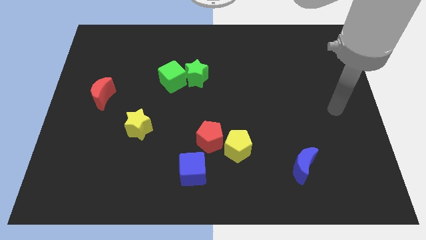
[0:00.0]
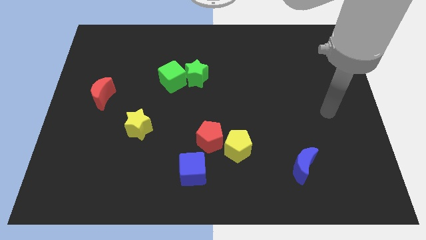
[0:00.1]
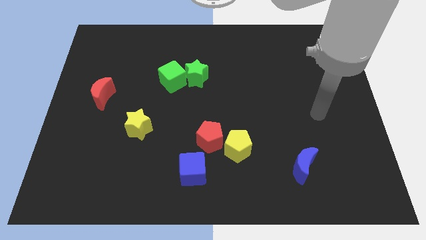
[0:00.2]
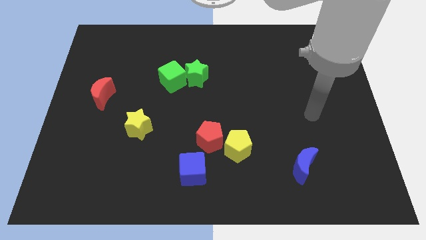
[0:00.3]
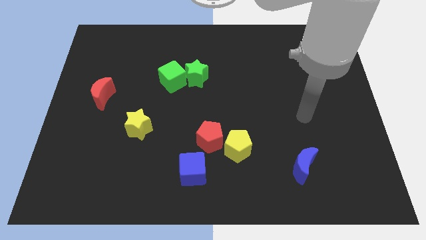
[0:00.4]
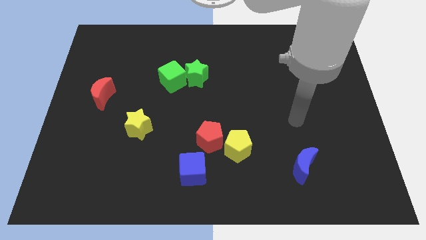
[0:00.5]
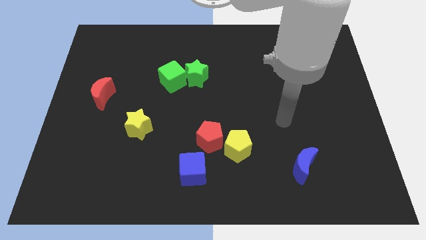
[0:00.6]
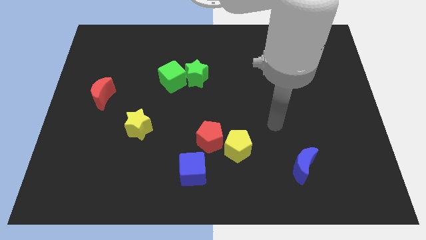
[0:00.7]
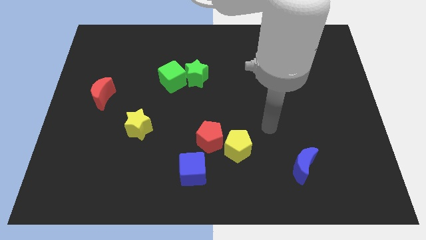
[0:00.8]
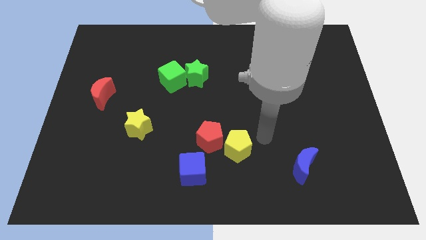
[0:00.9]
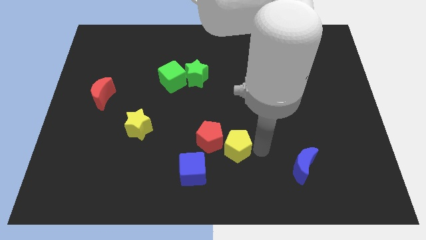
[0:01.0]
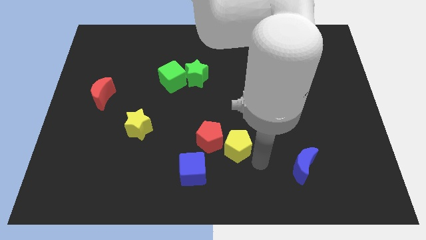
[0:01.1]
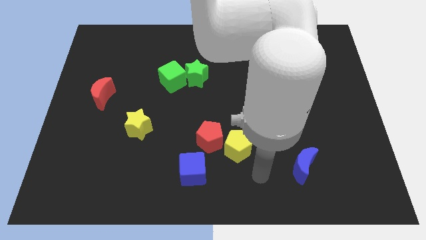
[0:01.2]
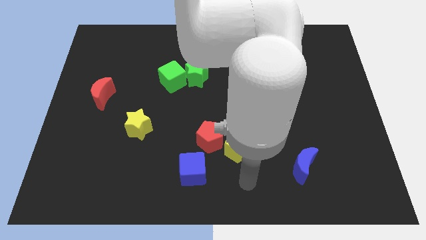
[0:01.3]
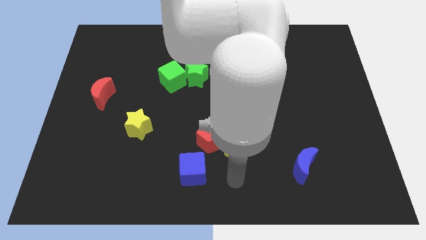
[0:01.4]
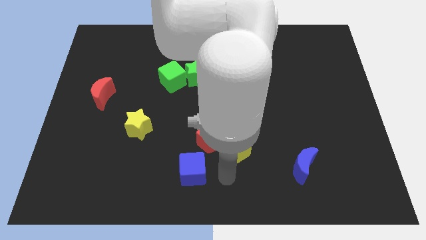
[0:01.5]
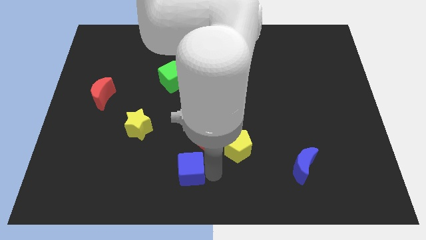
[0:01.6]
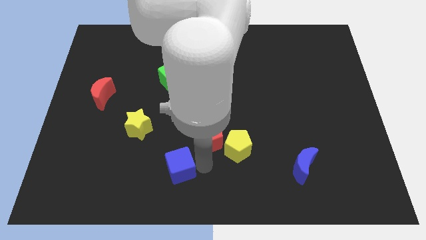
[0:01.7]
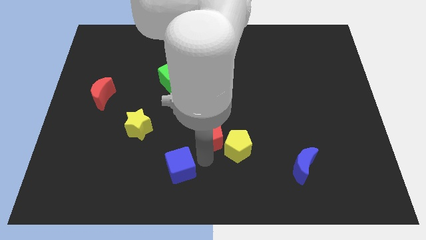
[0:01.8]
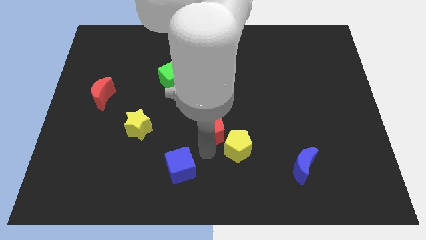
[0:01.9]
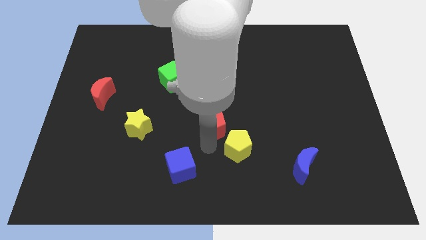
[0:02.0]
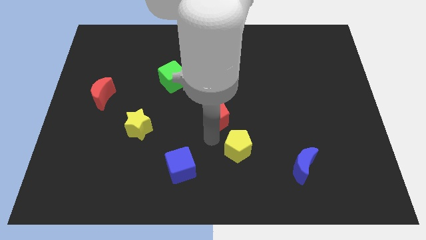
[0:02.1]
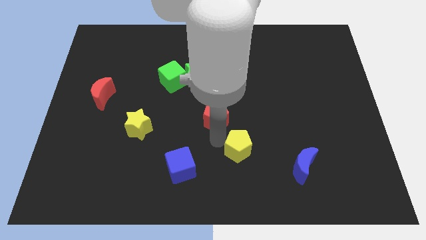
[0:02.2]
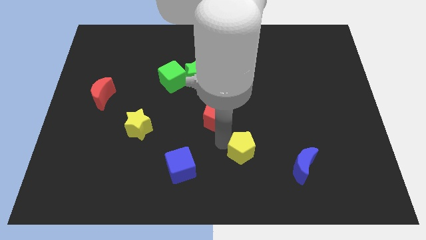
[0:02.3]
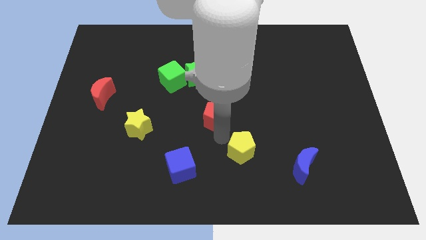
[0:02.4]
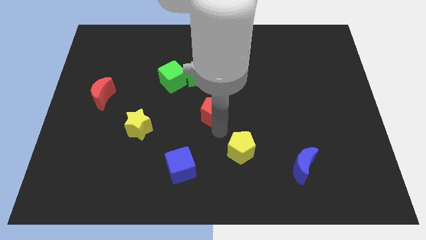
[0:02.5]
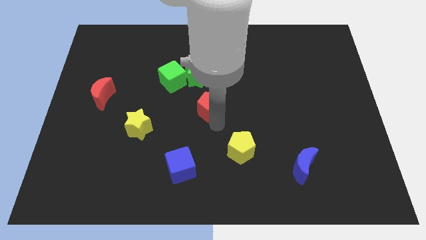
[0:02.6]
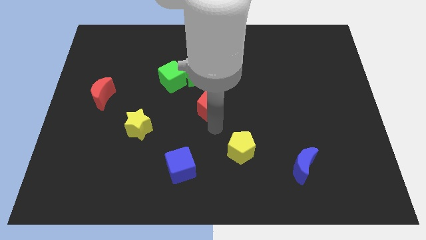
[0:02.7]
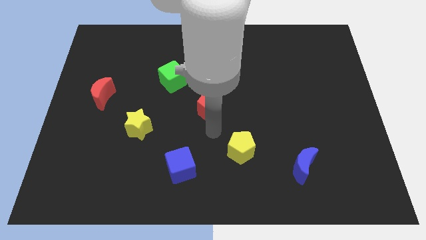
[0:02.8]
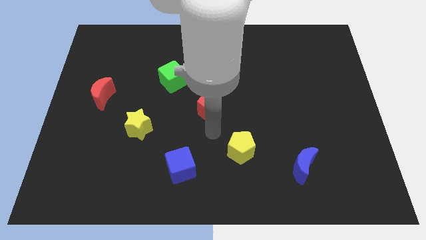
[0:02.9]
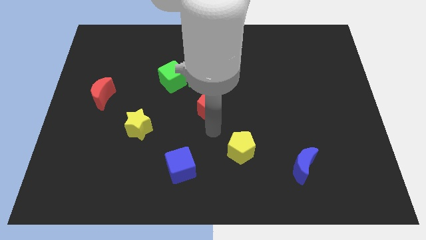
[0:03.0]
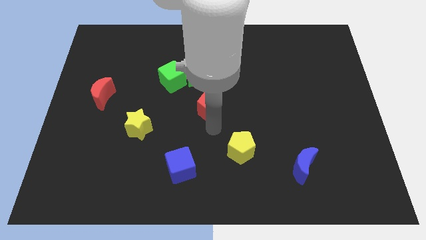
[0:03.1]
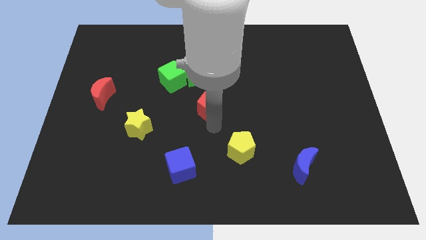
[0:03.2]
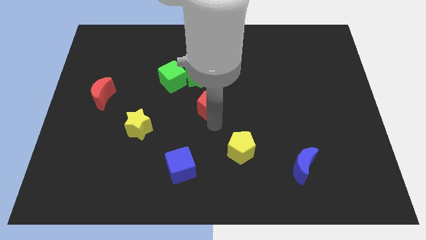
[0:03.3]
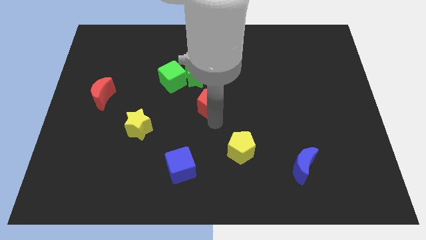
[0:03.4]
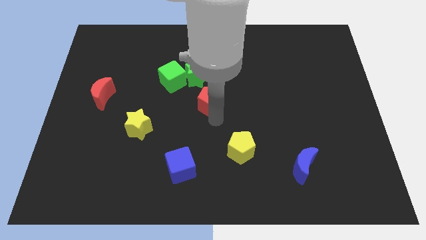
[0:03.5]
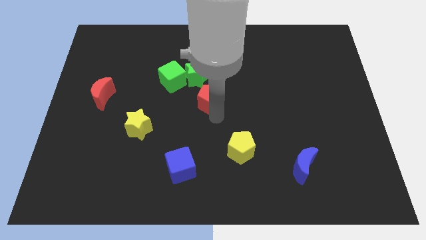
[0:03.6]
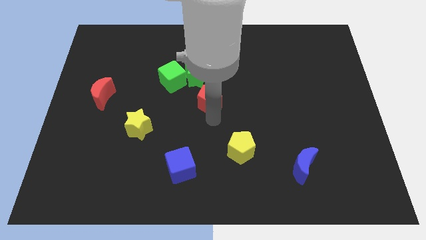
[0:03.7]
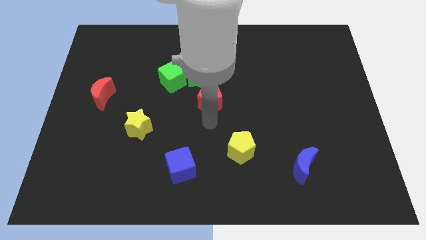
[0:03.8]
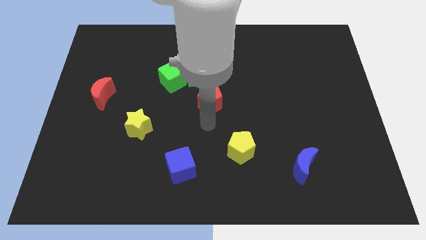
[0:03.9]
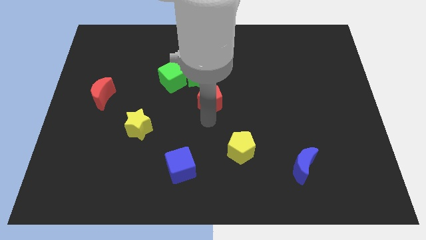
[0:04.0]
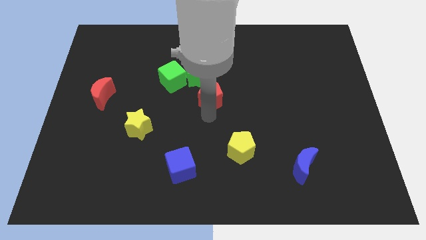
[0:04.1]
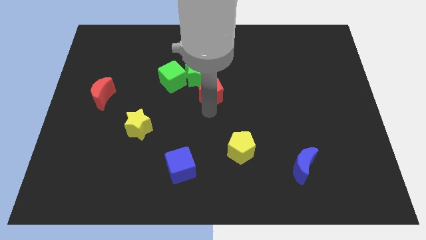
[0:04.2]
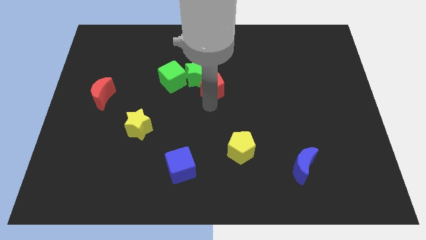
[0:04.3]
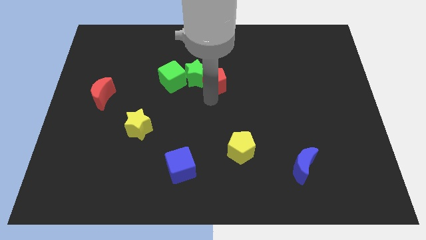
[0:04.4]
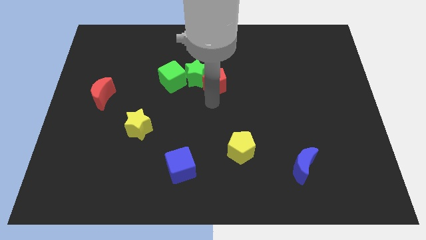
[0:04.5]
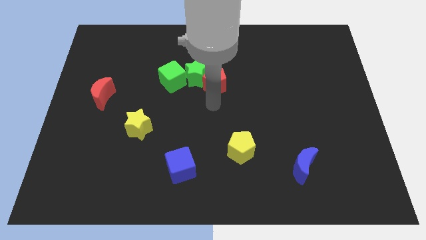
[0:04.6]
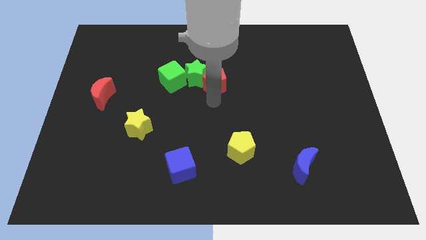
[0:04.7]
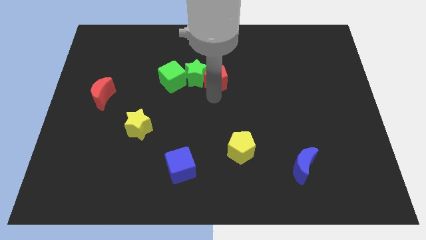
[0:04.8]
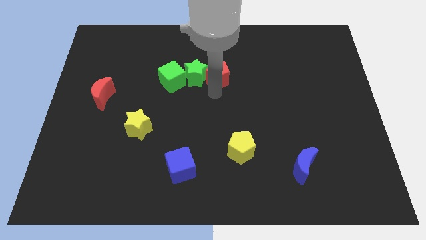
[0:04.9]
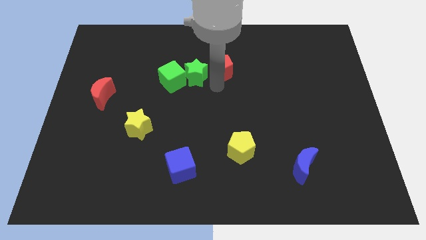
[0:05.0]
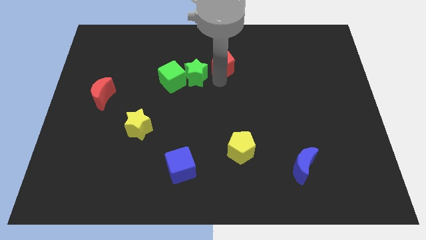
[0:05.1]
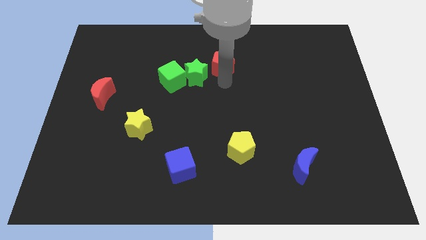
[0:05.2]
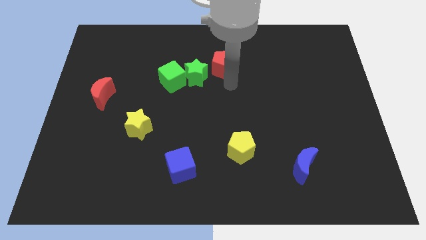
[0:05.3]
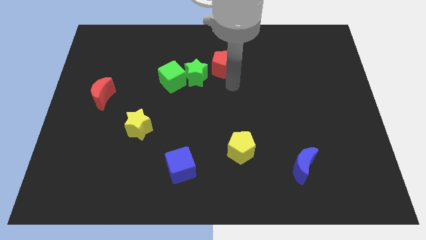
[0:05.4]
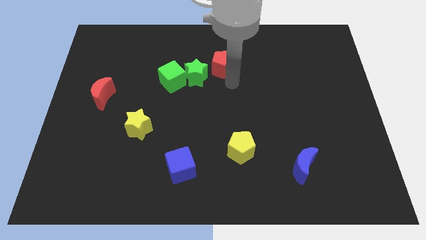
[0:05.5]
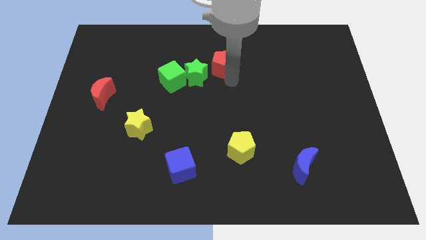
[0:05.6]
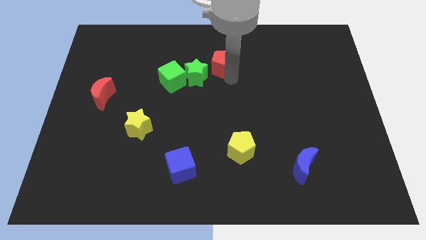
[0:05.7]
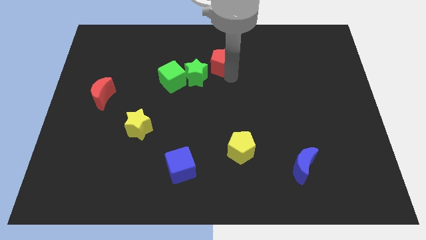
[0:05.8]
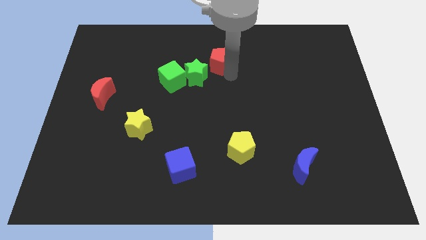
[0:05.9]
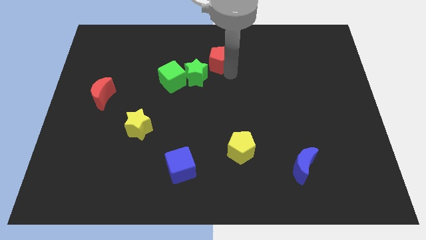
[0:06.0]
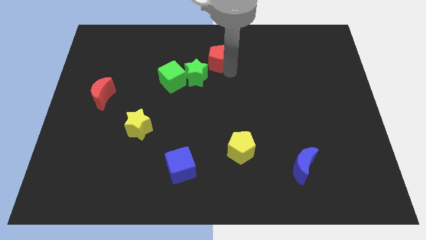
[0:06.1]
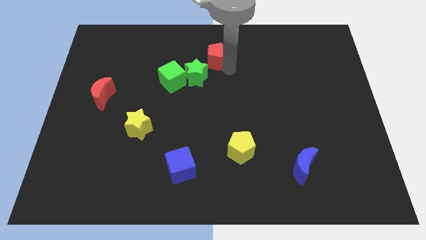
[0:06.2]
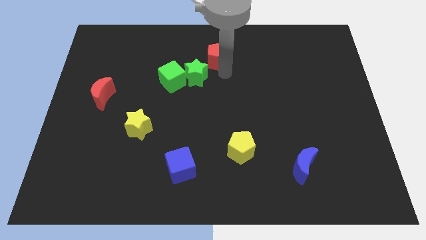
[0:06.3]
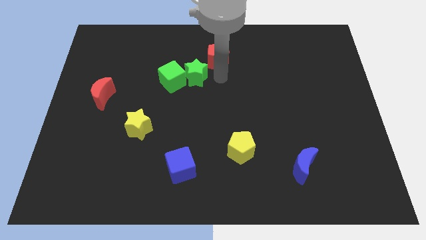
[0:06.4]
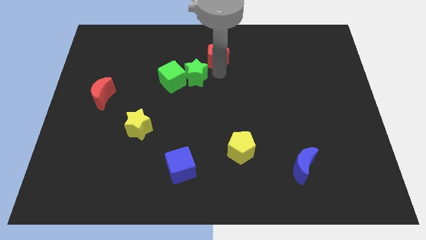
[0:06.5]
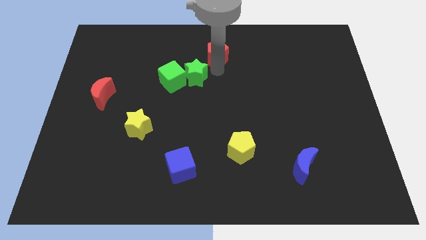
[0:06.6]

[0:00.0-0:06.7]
move the red pentagon to the towards your base
